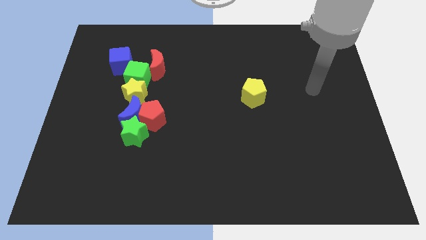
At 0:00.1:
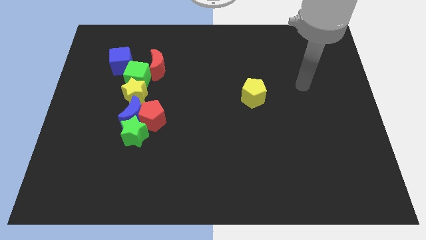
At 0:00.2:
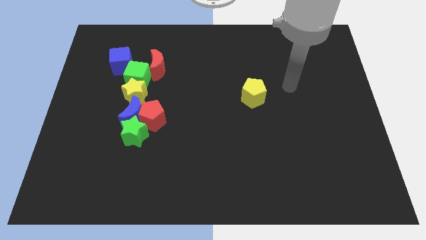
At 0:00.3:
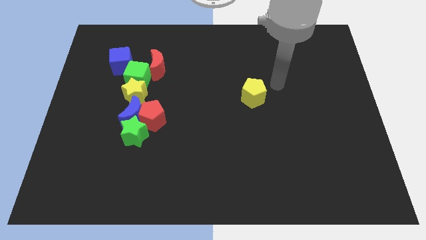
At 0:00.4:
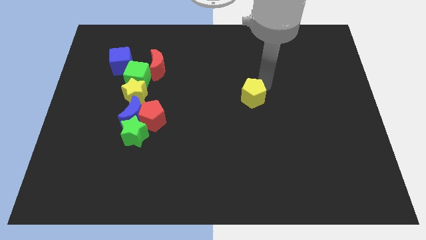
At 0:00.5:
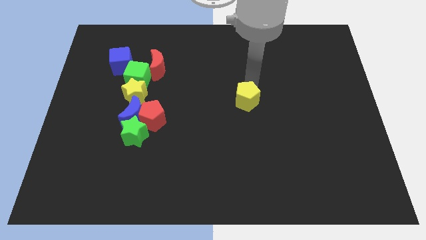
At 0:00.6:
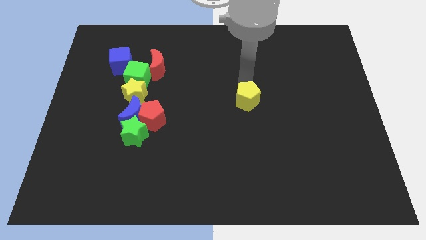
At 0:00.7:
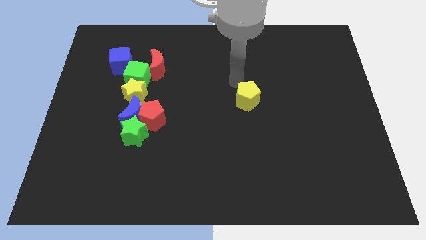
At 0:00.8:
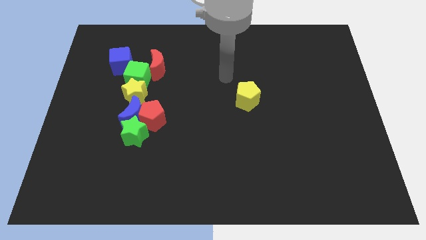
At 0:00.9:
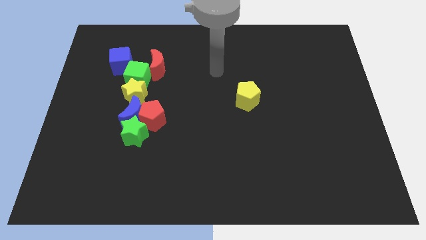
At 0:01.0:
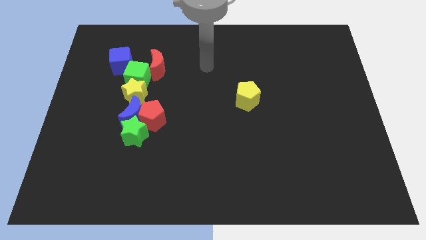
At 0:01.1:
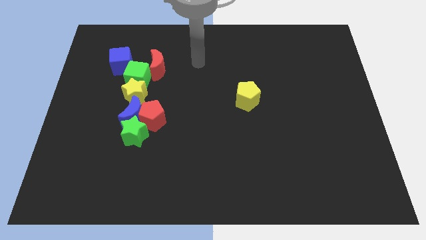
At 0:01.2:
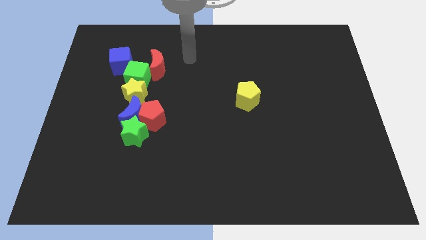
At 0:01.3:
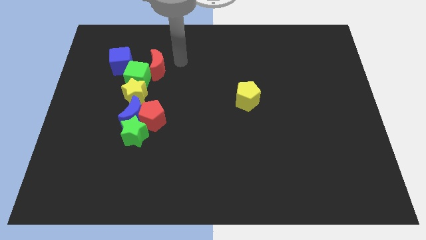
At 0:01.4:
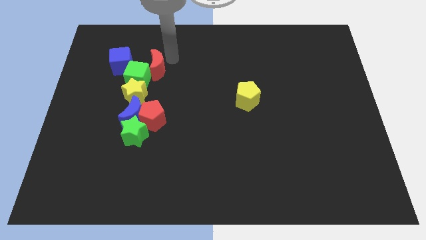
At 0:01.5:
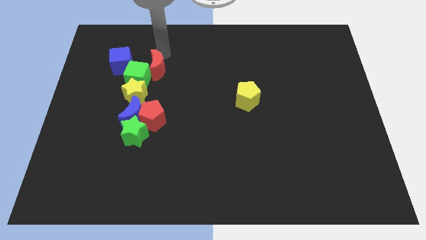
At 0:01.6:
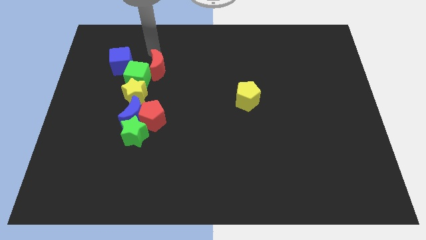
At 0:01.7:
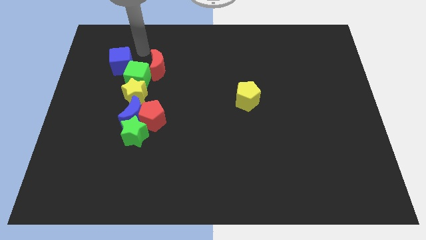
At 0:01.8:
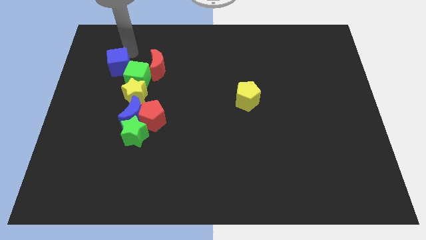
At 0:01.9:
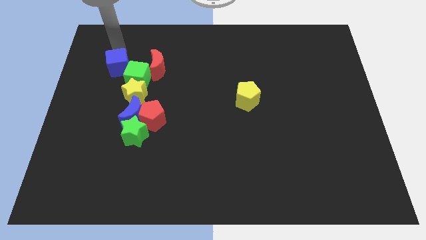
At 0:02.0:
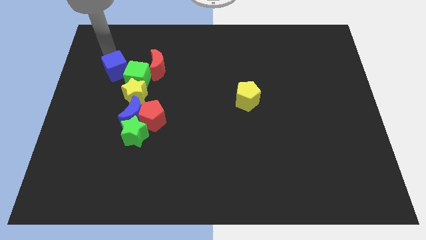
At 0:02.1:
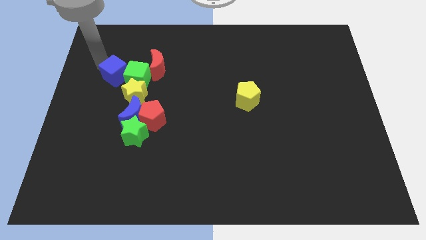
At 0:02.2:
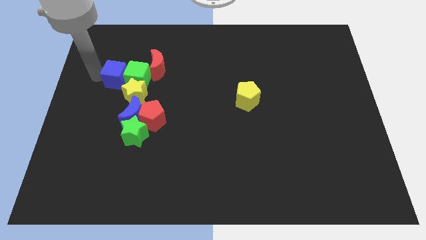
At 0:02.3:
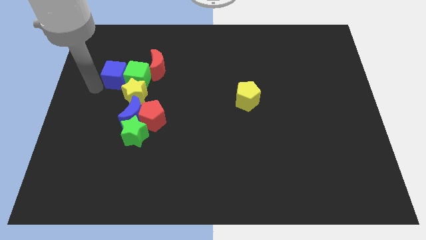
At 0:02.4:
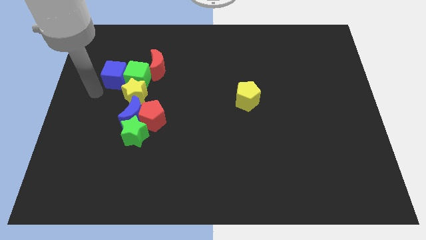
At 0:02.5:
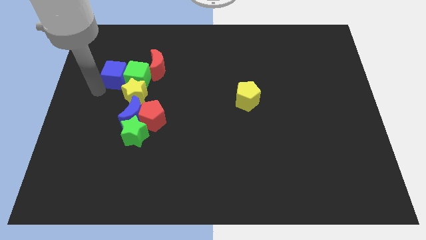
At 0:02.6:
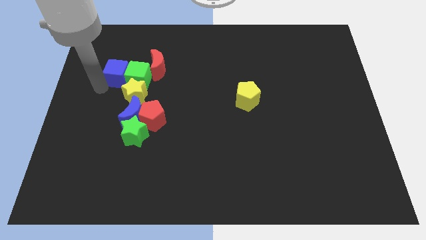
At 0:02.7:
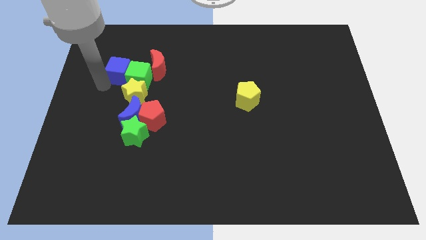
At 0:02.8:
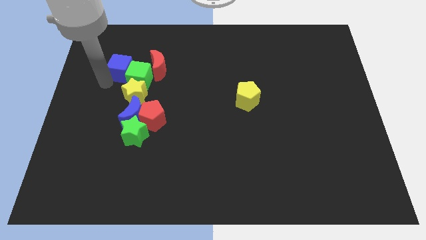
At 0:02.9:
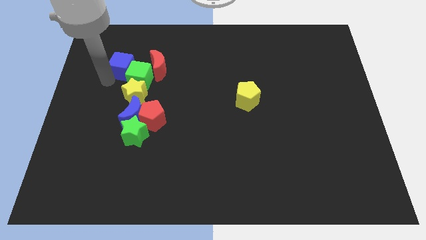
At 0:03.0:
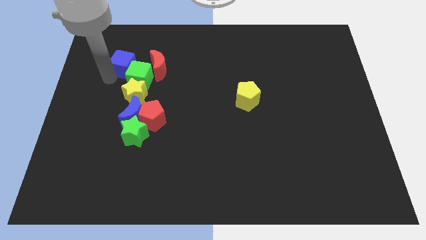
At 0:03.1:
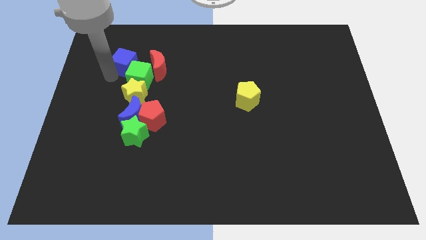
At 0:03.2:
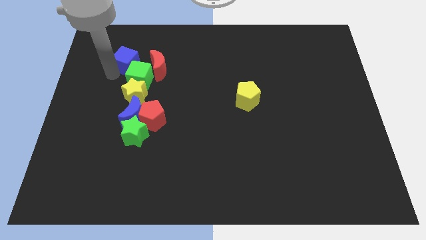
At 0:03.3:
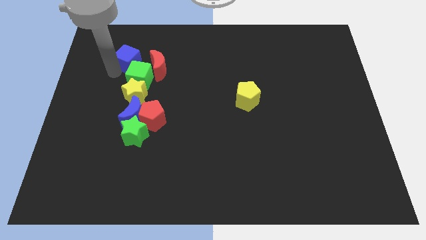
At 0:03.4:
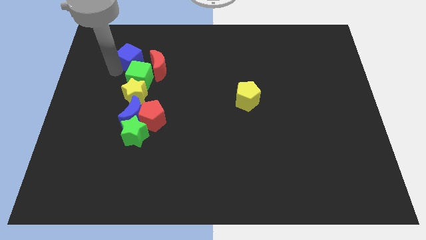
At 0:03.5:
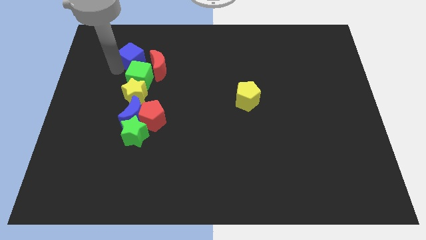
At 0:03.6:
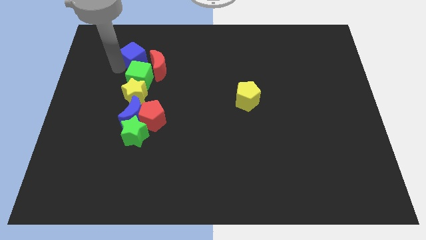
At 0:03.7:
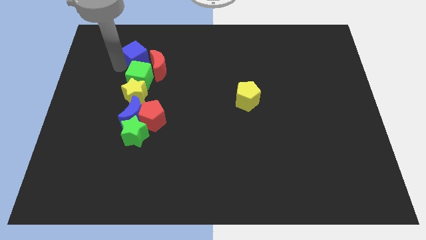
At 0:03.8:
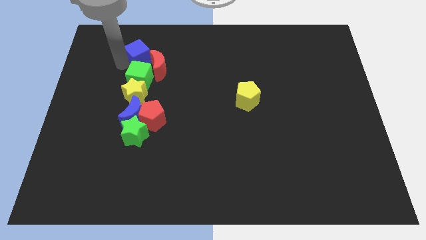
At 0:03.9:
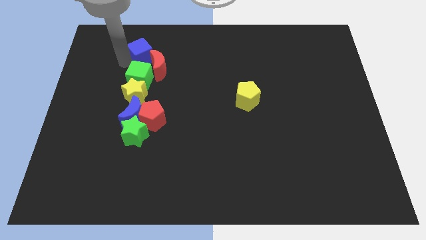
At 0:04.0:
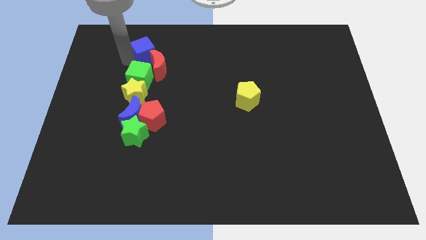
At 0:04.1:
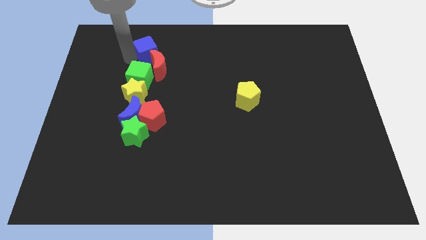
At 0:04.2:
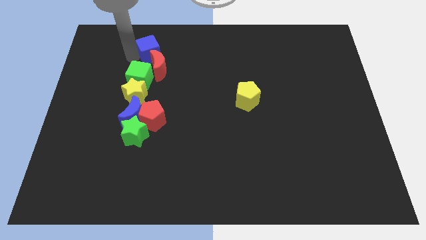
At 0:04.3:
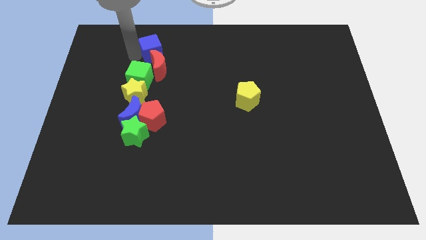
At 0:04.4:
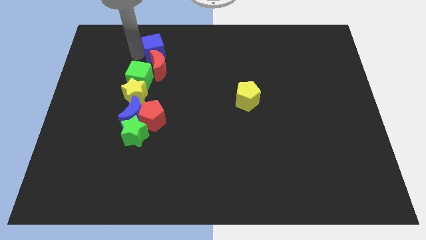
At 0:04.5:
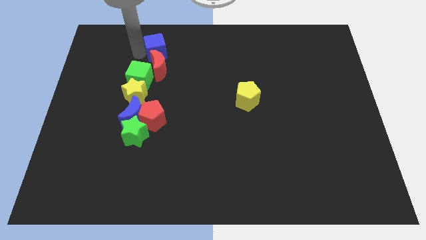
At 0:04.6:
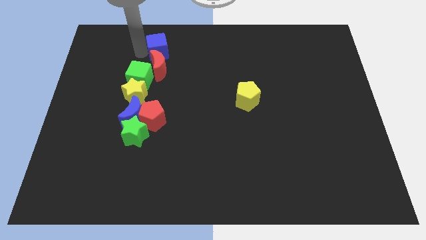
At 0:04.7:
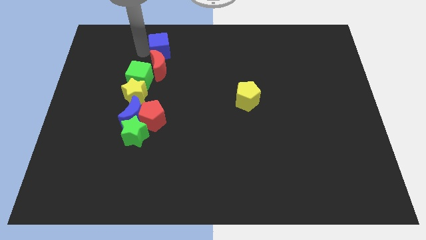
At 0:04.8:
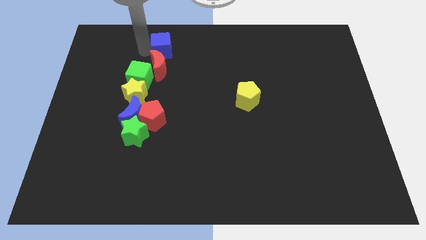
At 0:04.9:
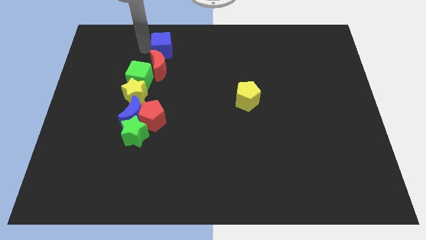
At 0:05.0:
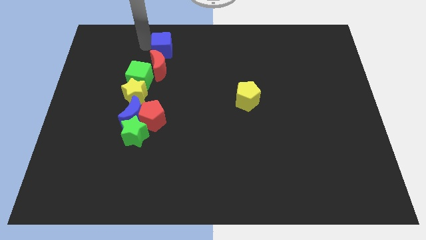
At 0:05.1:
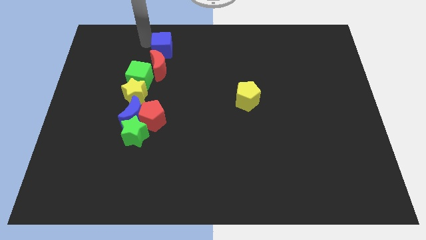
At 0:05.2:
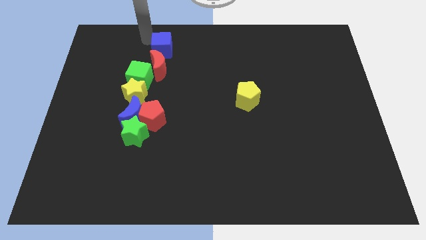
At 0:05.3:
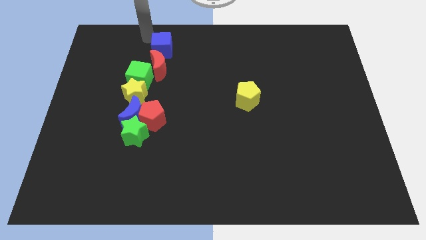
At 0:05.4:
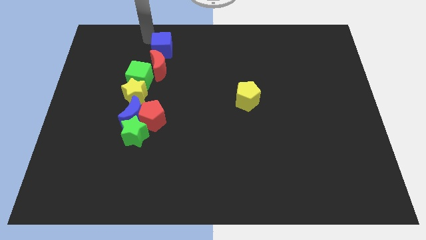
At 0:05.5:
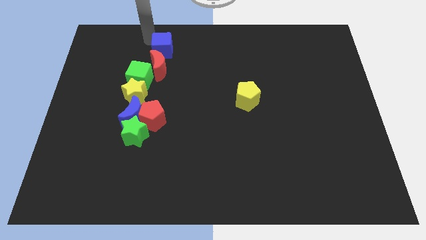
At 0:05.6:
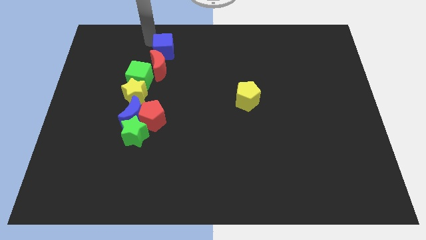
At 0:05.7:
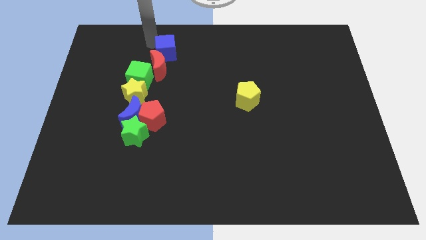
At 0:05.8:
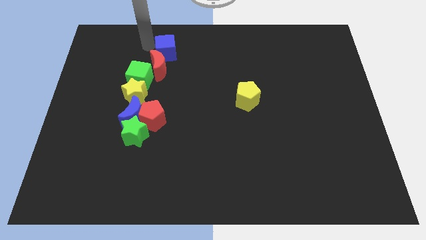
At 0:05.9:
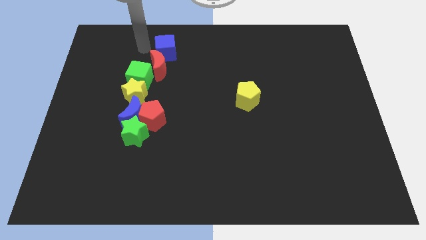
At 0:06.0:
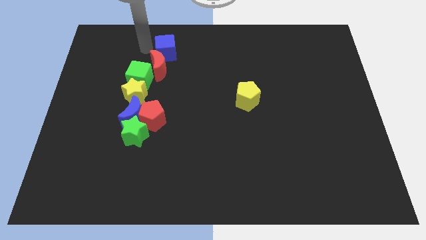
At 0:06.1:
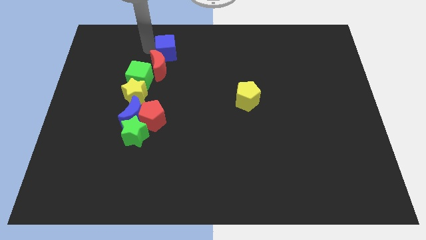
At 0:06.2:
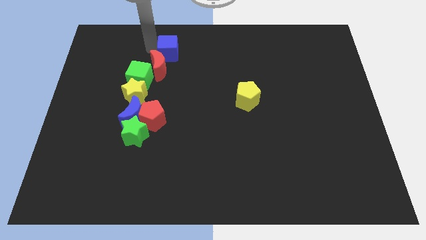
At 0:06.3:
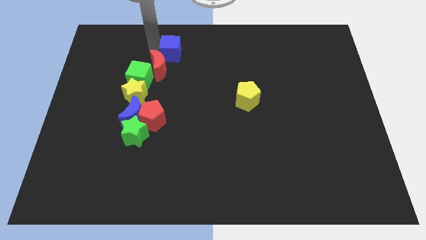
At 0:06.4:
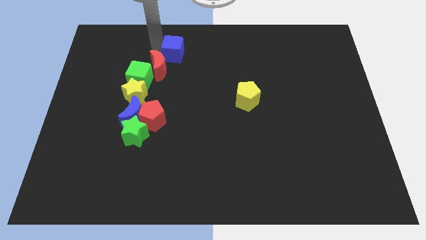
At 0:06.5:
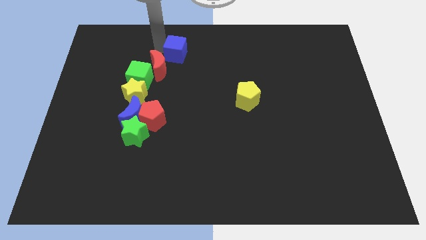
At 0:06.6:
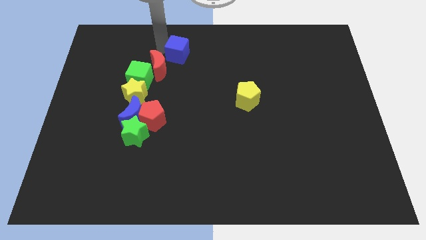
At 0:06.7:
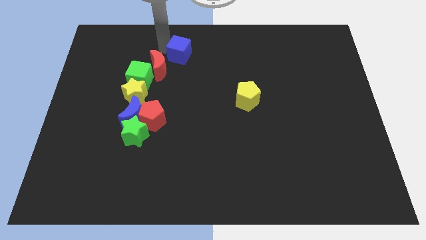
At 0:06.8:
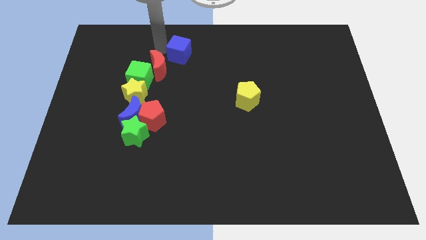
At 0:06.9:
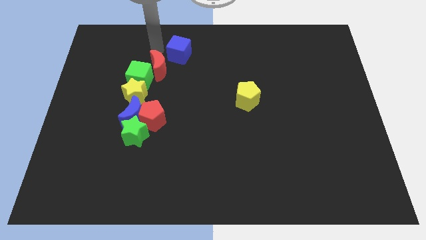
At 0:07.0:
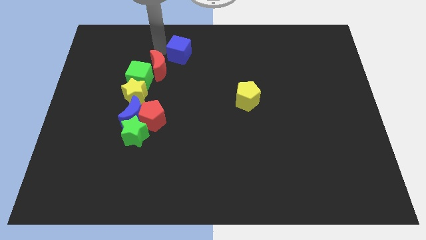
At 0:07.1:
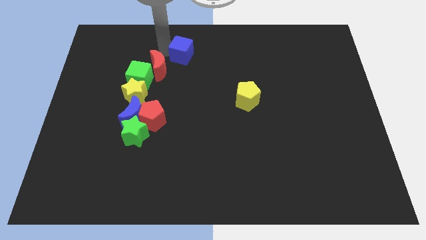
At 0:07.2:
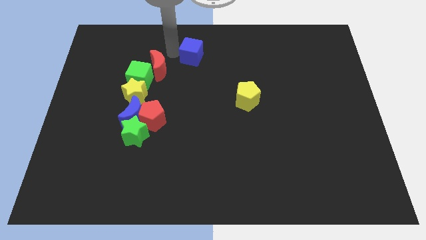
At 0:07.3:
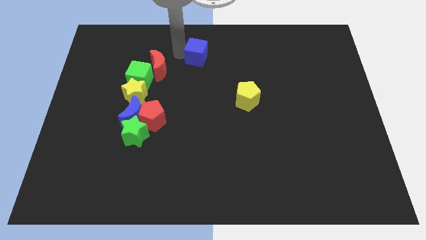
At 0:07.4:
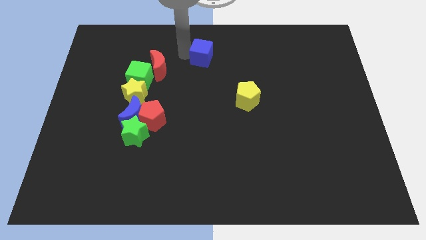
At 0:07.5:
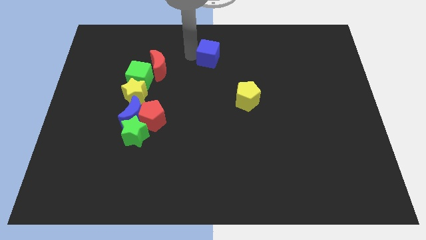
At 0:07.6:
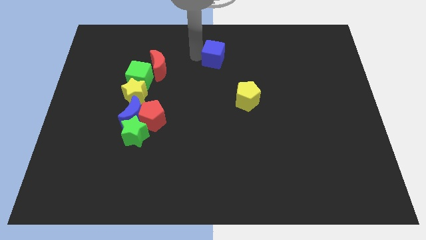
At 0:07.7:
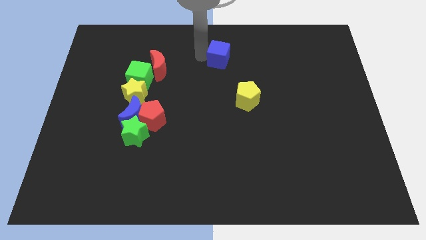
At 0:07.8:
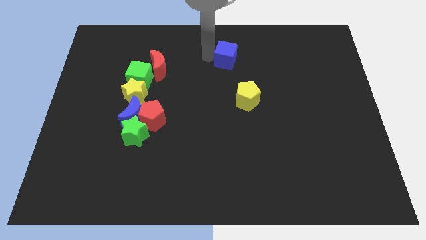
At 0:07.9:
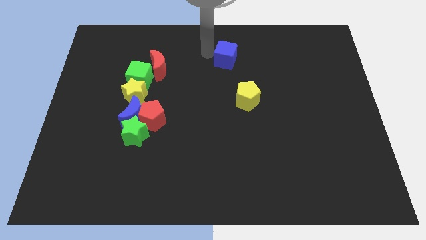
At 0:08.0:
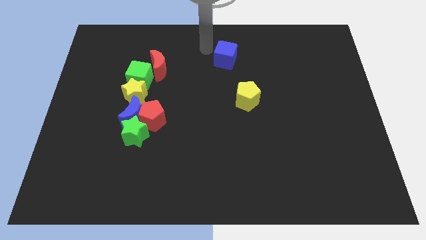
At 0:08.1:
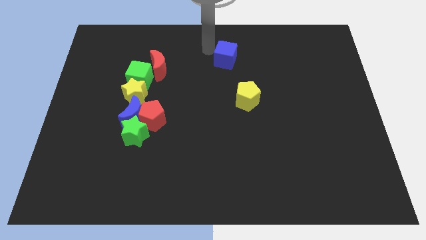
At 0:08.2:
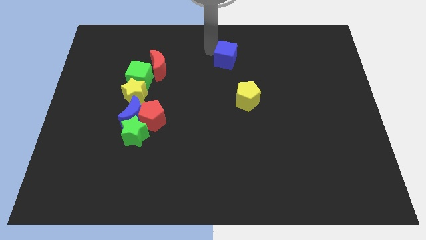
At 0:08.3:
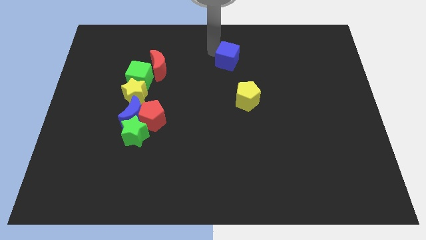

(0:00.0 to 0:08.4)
push the blue cube to the top of the yellow pentagon
